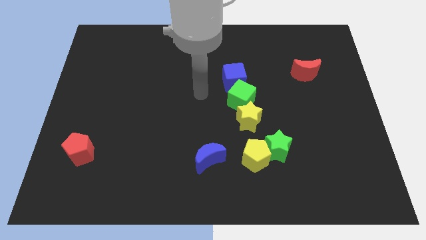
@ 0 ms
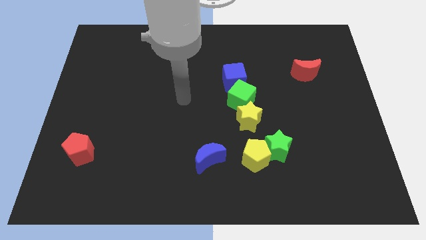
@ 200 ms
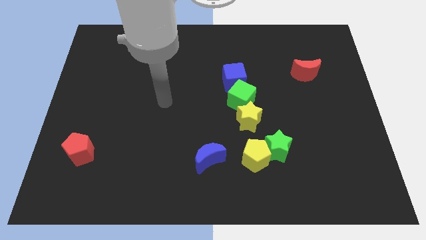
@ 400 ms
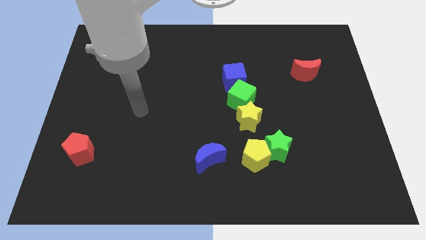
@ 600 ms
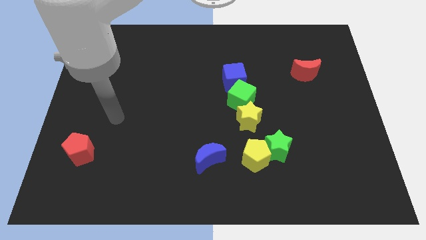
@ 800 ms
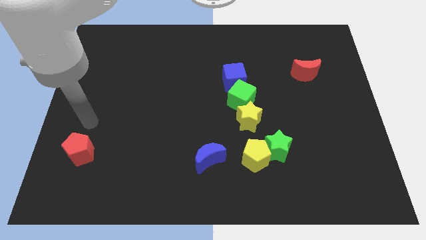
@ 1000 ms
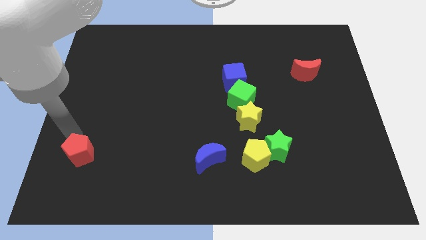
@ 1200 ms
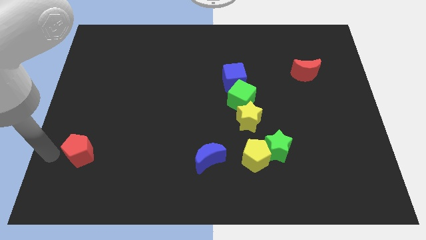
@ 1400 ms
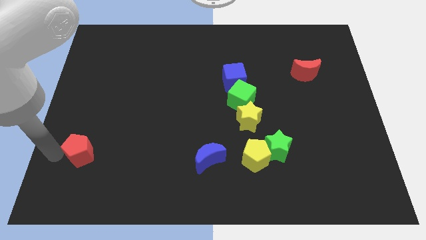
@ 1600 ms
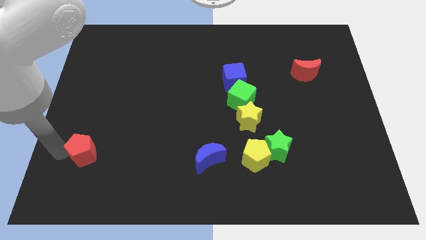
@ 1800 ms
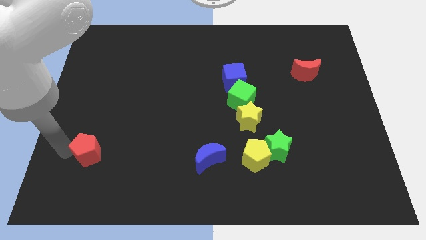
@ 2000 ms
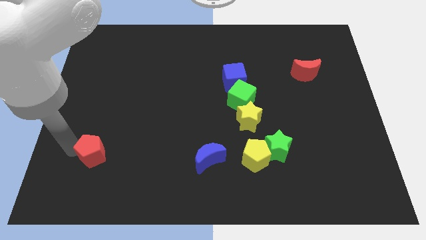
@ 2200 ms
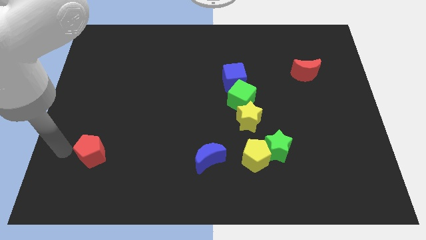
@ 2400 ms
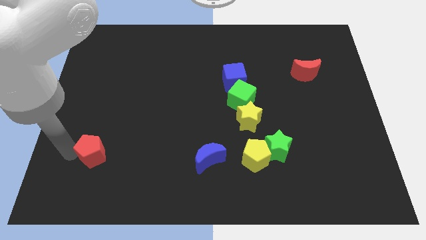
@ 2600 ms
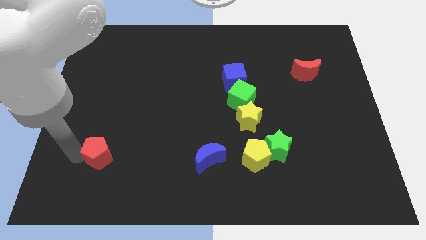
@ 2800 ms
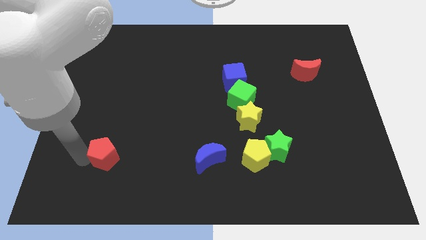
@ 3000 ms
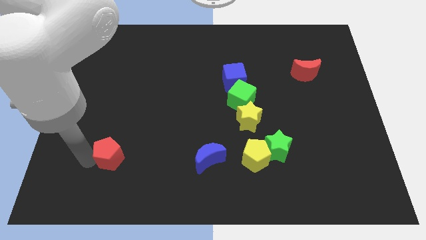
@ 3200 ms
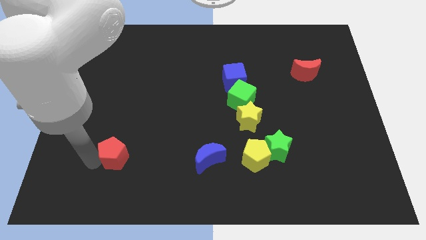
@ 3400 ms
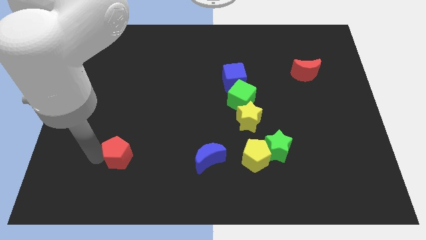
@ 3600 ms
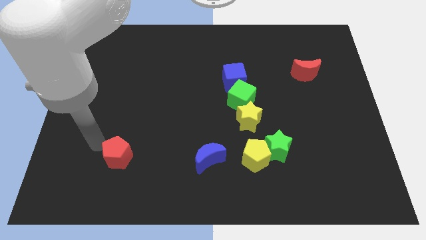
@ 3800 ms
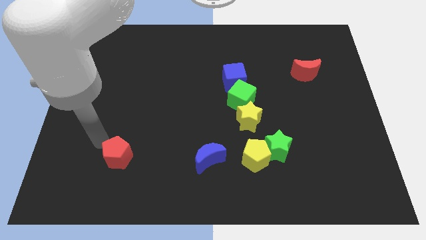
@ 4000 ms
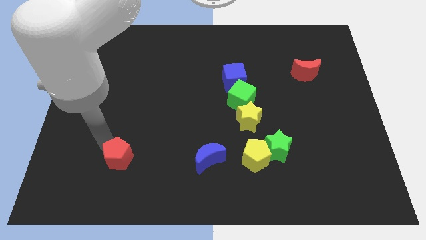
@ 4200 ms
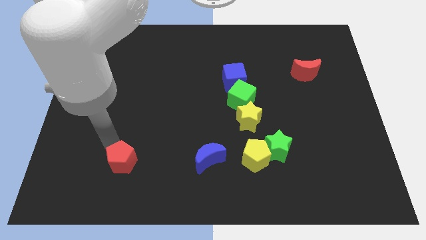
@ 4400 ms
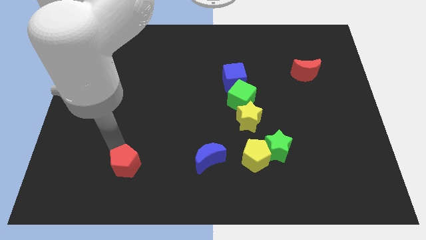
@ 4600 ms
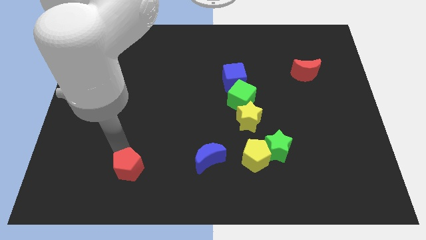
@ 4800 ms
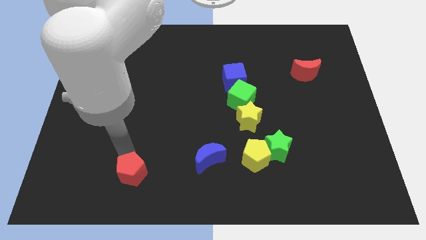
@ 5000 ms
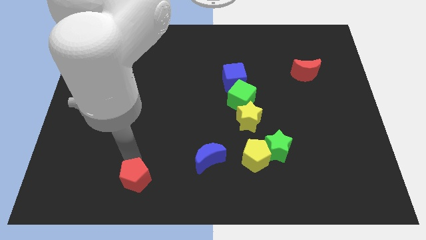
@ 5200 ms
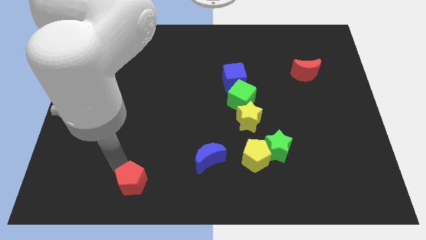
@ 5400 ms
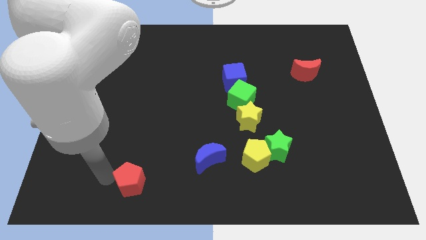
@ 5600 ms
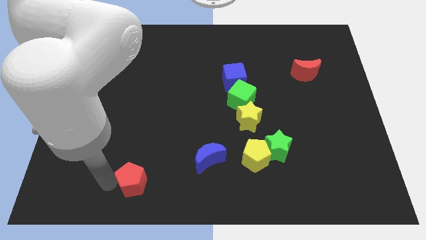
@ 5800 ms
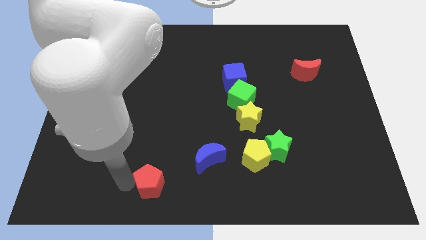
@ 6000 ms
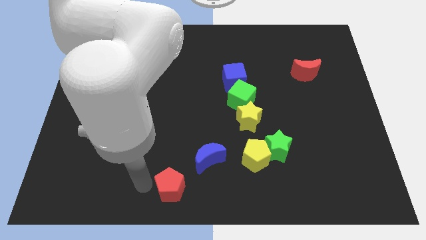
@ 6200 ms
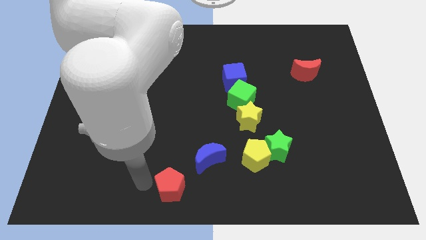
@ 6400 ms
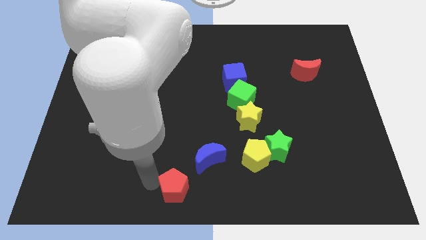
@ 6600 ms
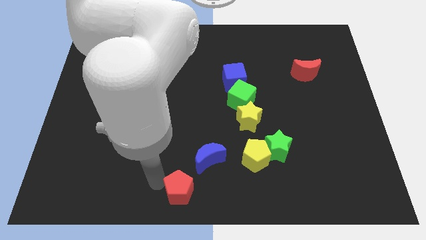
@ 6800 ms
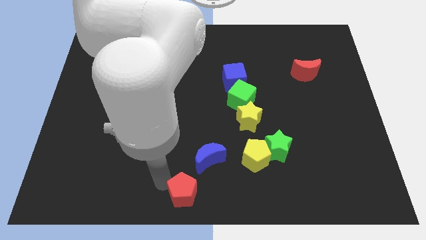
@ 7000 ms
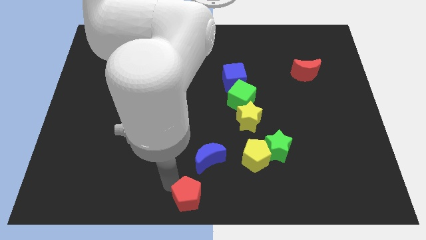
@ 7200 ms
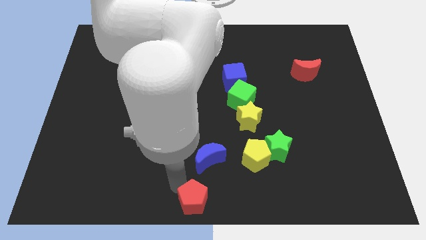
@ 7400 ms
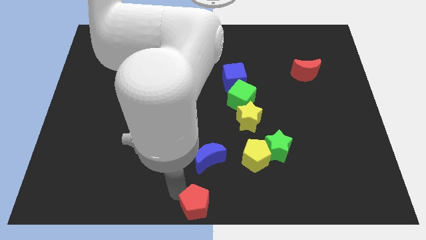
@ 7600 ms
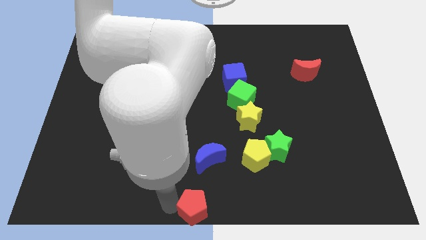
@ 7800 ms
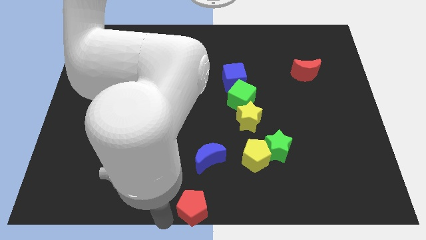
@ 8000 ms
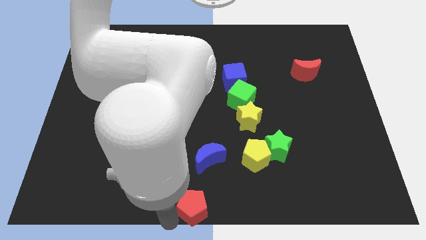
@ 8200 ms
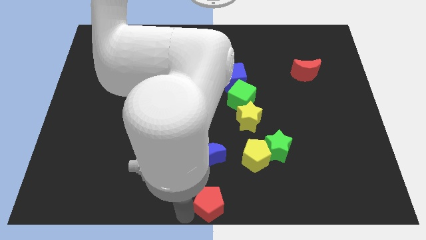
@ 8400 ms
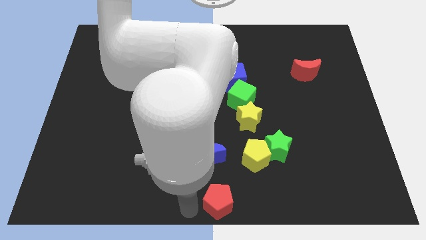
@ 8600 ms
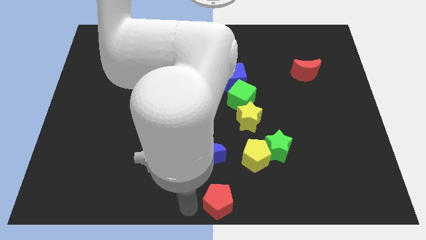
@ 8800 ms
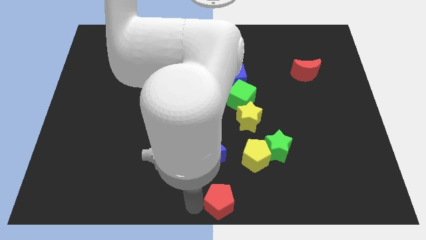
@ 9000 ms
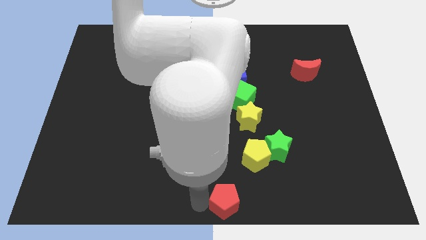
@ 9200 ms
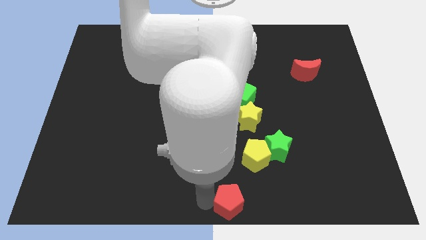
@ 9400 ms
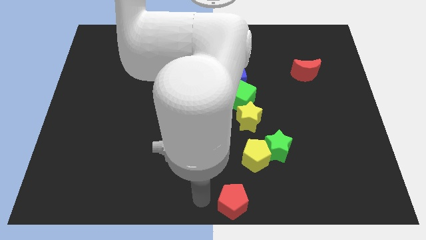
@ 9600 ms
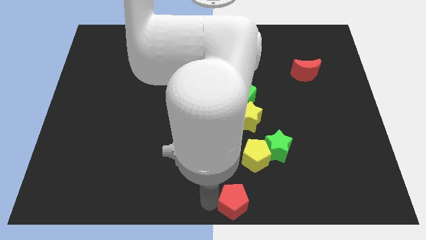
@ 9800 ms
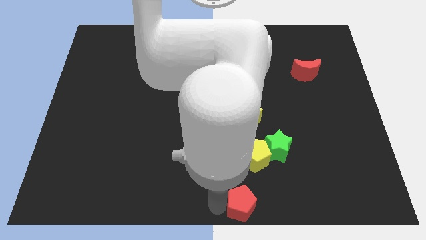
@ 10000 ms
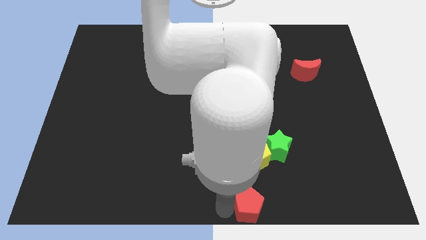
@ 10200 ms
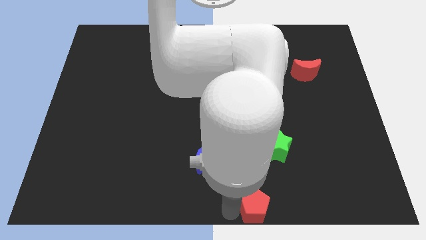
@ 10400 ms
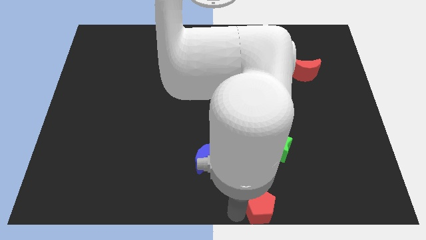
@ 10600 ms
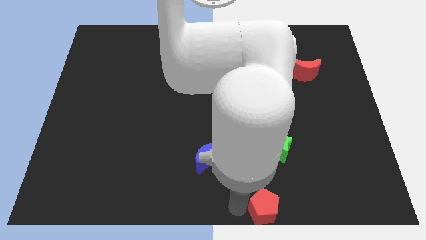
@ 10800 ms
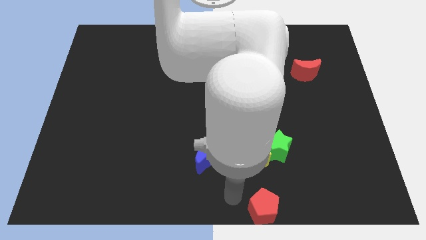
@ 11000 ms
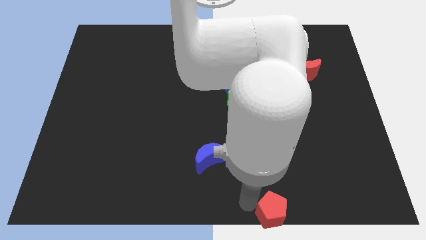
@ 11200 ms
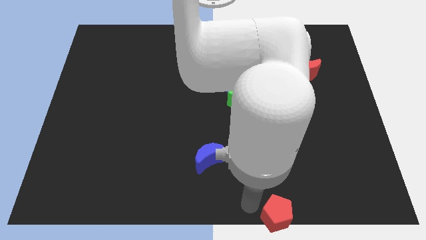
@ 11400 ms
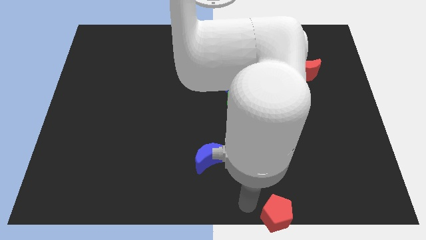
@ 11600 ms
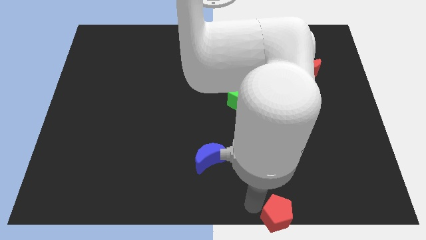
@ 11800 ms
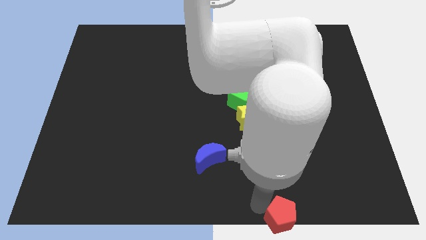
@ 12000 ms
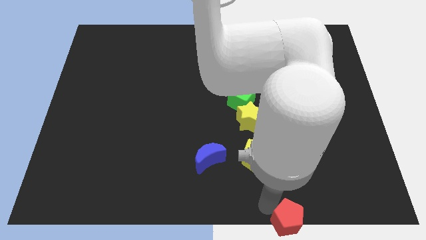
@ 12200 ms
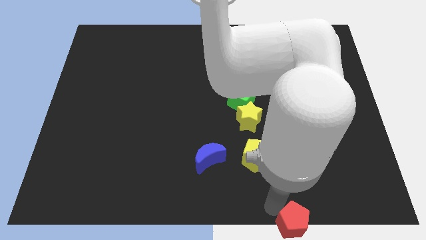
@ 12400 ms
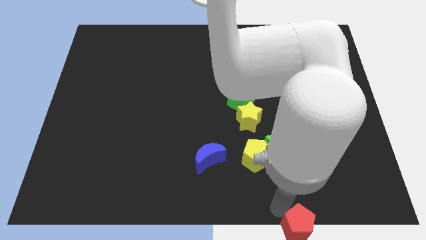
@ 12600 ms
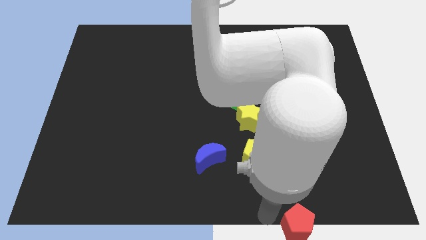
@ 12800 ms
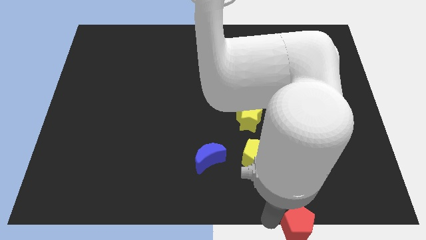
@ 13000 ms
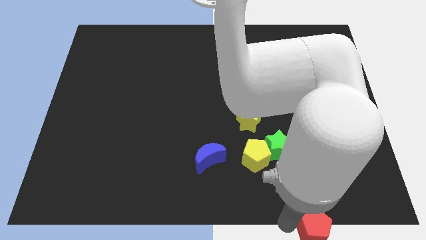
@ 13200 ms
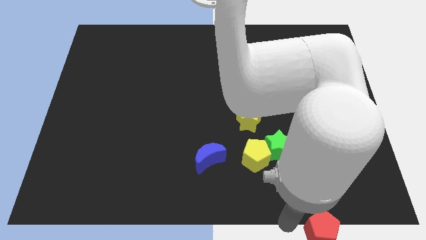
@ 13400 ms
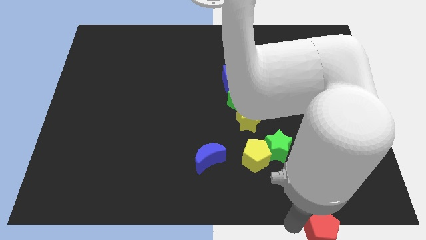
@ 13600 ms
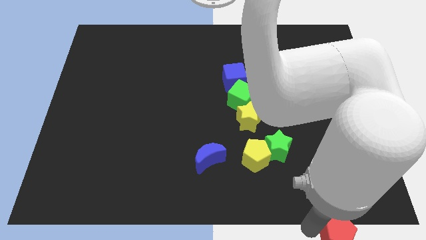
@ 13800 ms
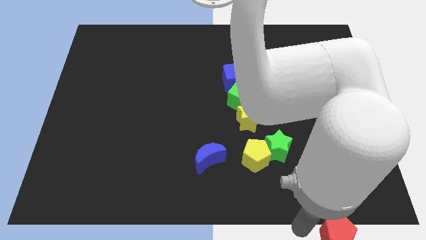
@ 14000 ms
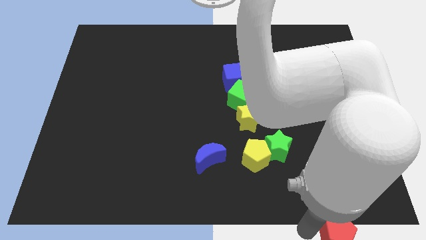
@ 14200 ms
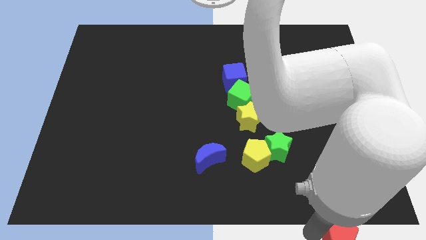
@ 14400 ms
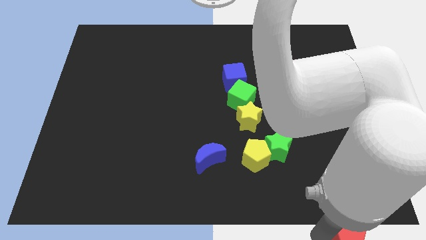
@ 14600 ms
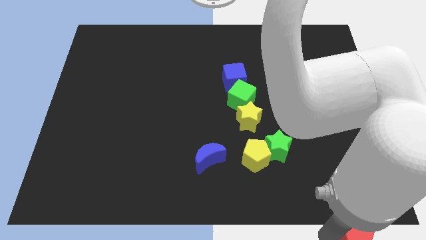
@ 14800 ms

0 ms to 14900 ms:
push the red pentagon to the bottom right corner
